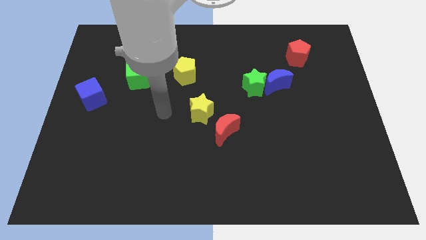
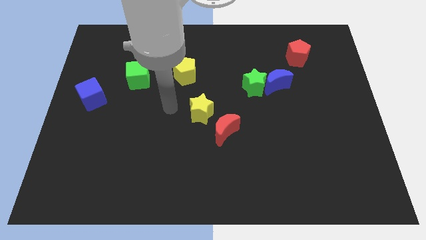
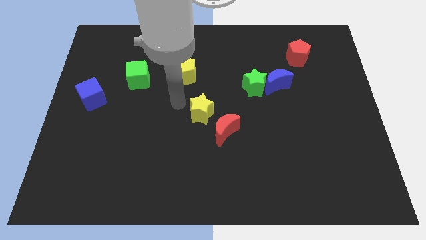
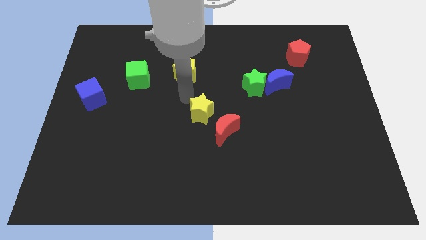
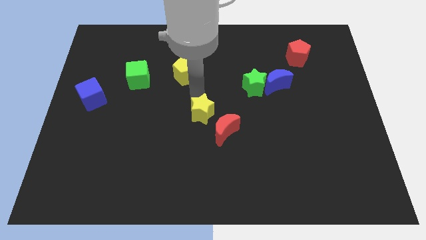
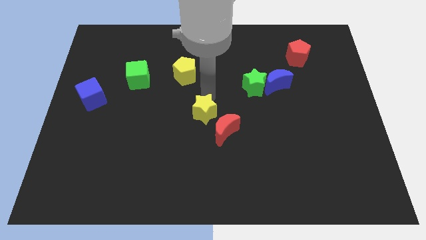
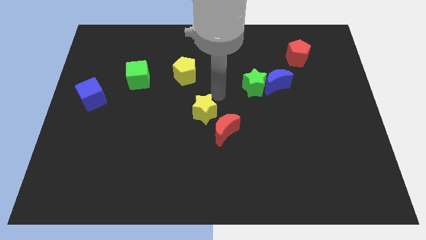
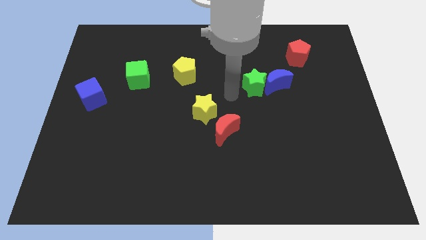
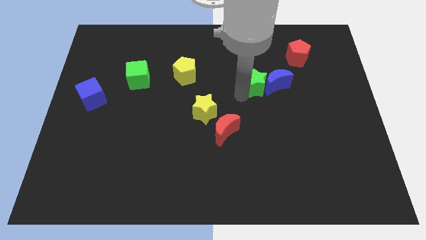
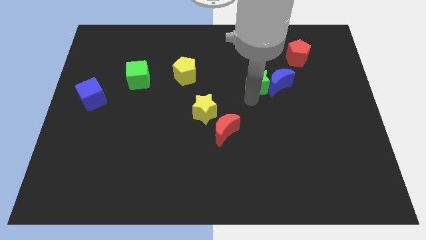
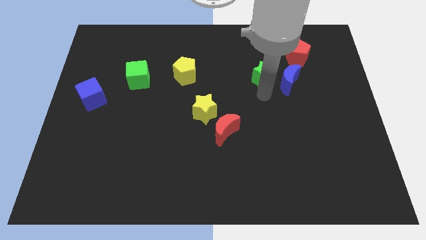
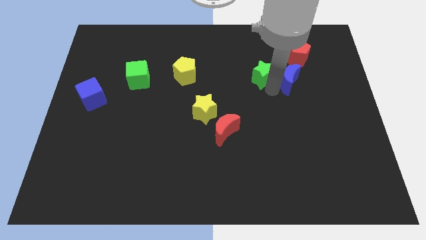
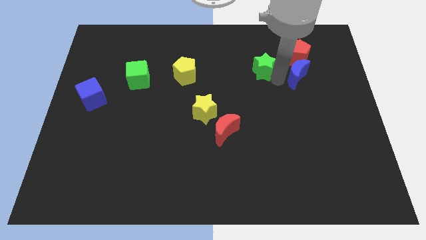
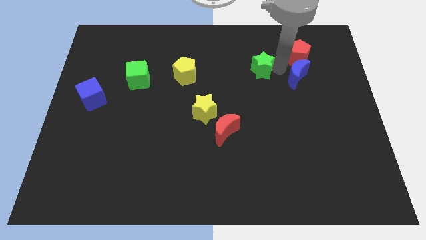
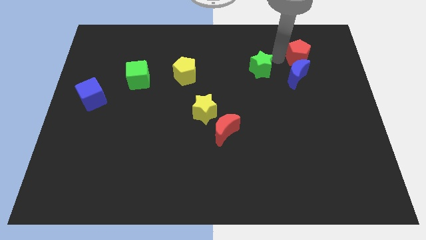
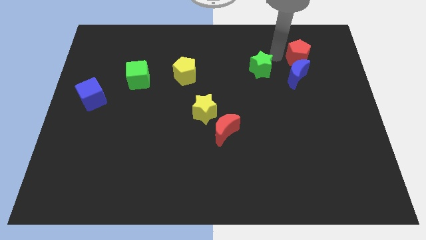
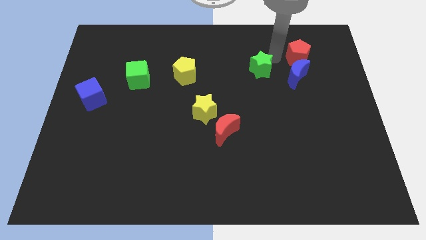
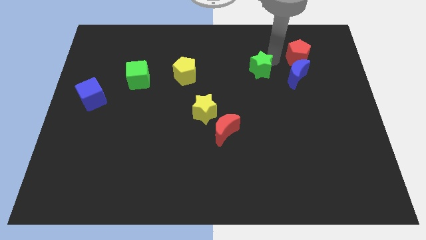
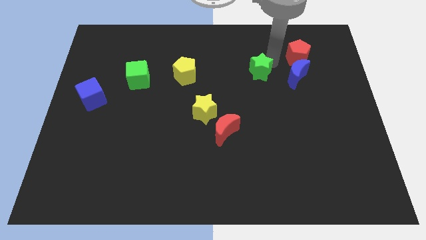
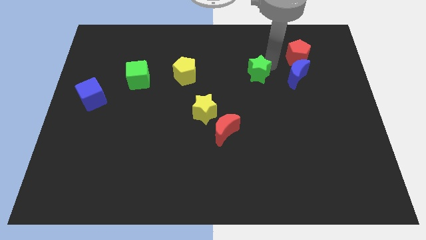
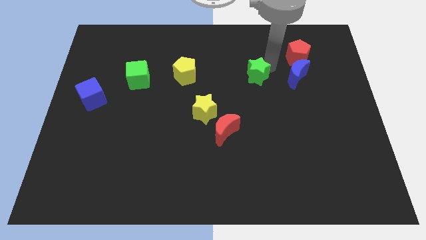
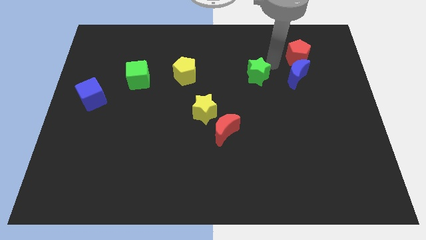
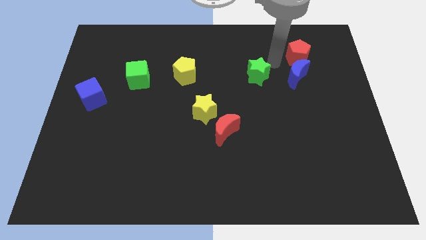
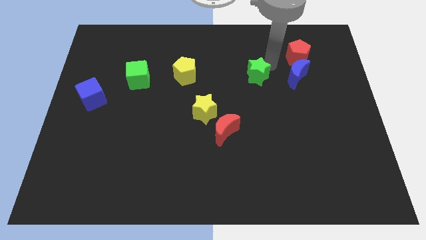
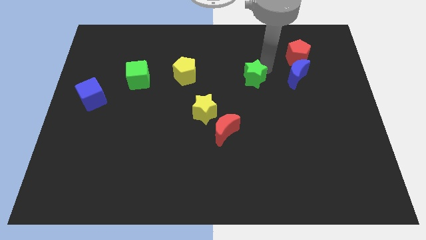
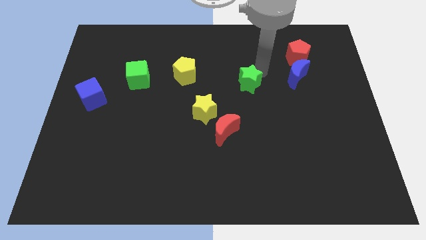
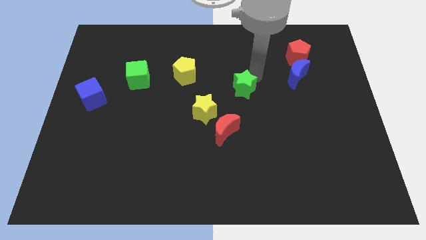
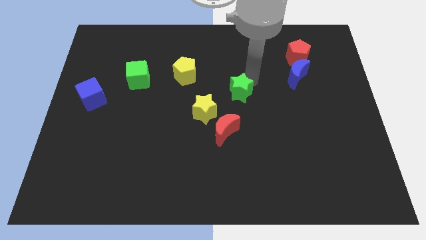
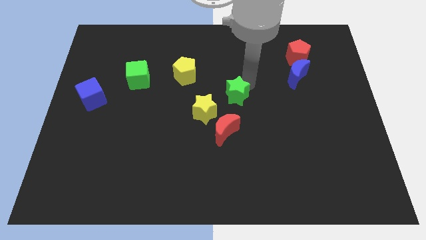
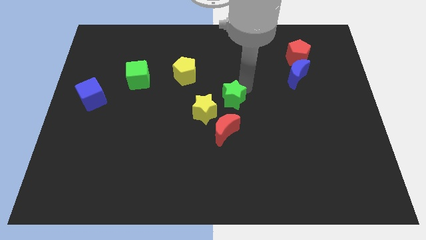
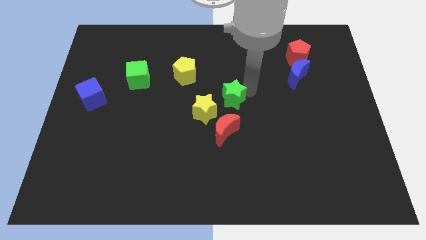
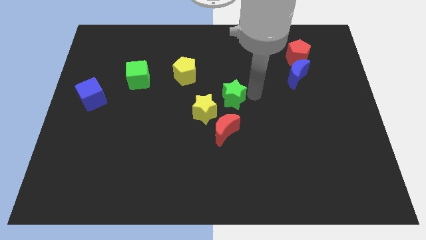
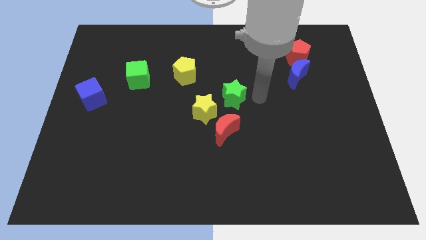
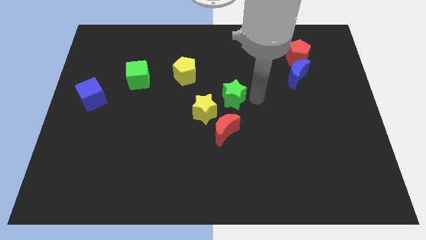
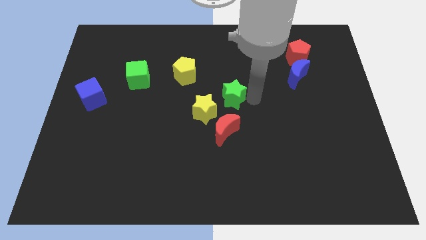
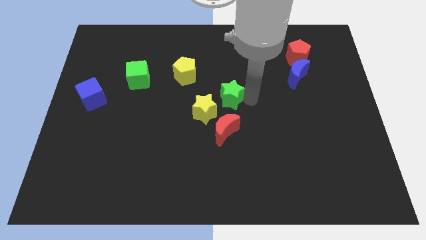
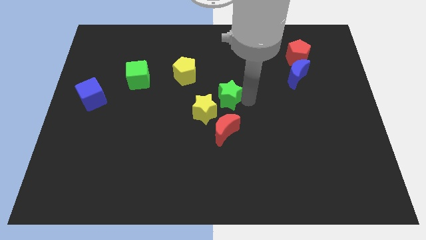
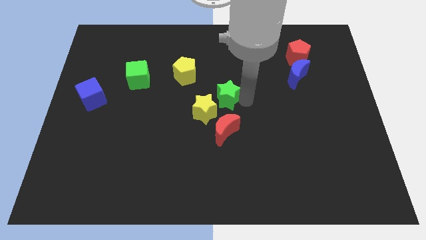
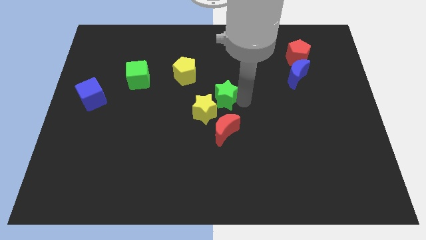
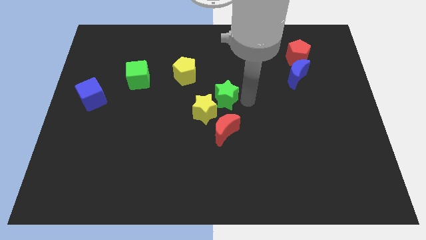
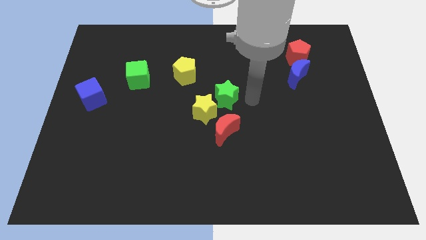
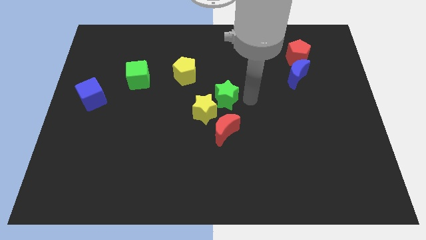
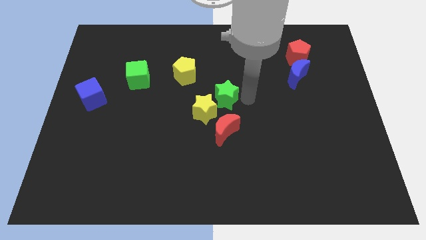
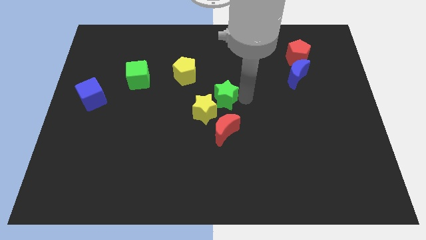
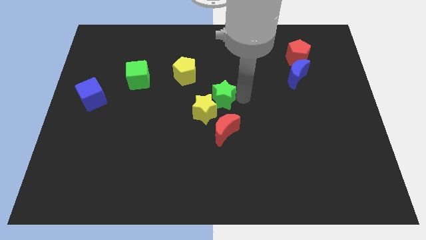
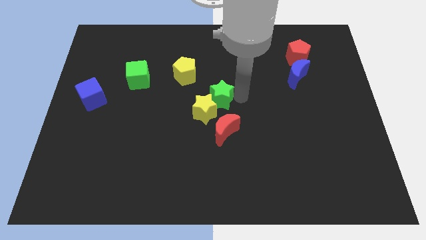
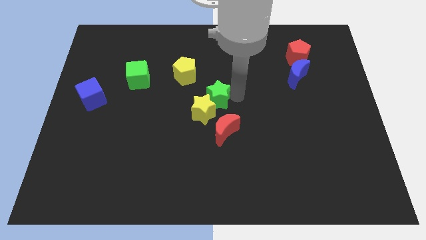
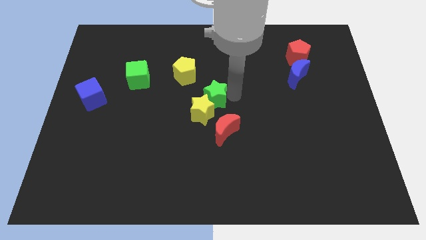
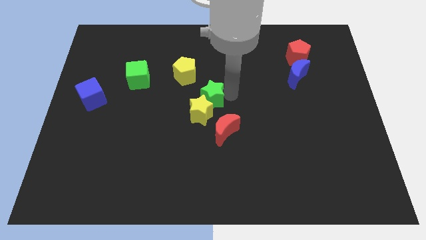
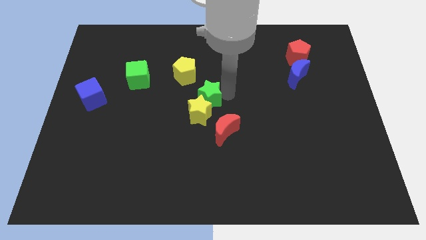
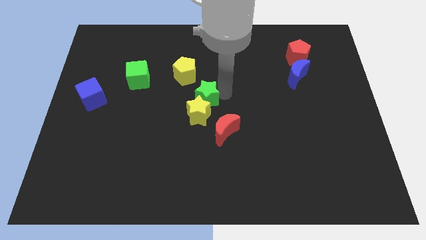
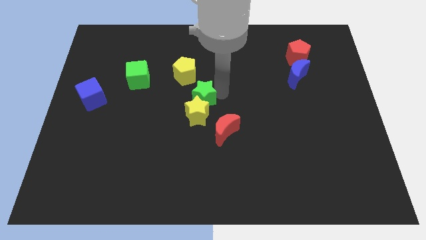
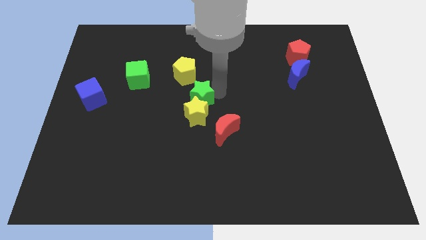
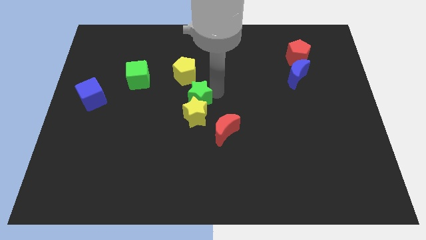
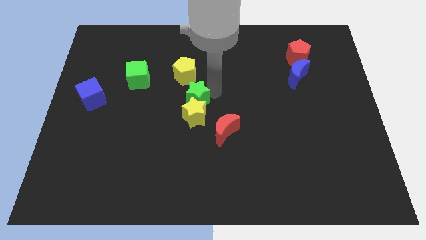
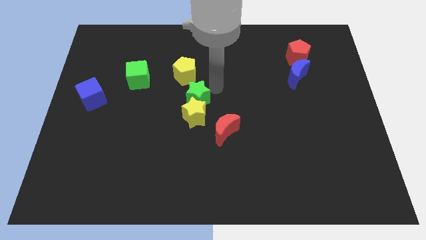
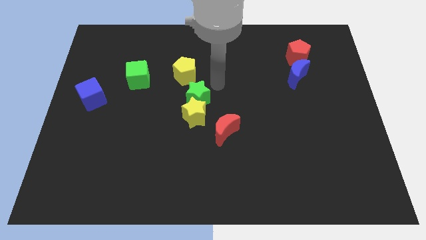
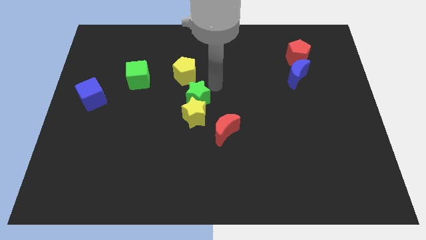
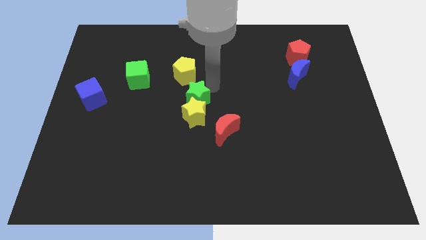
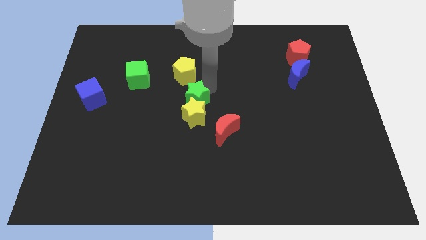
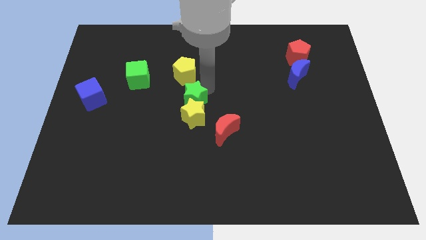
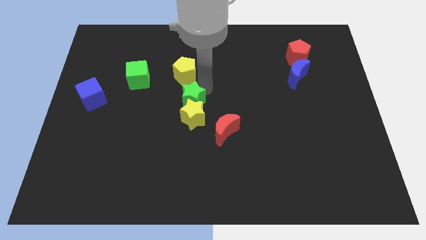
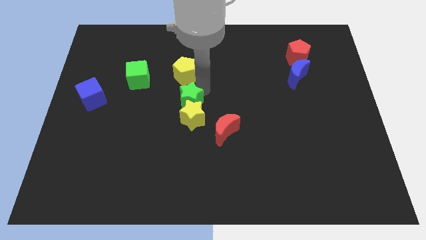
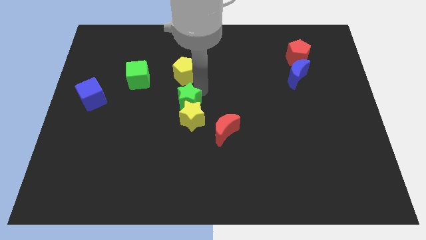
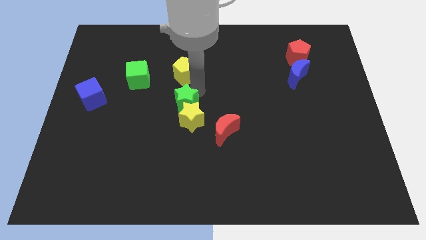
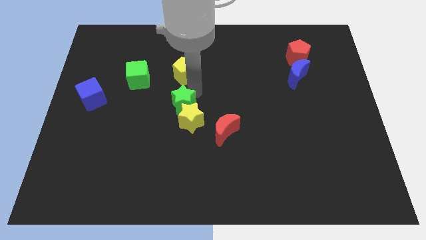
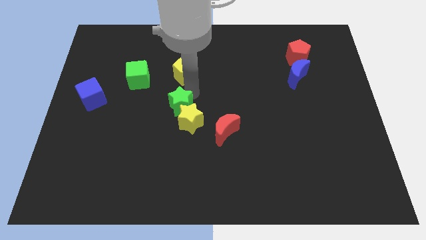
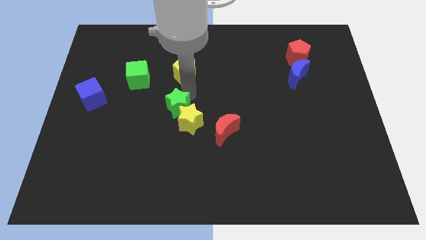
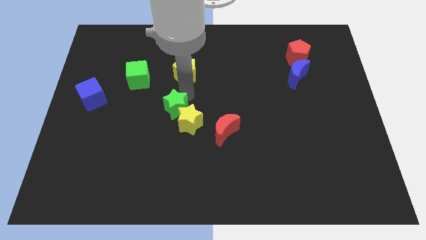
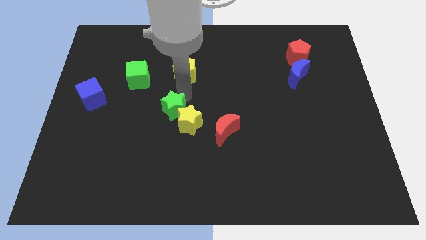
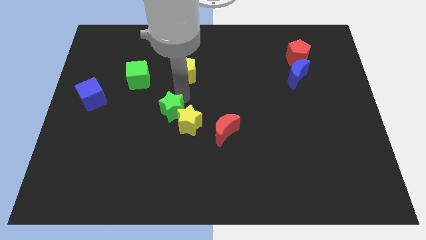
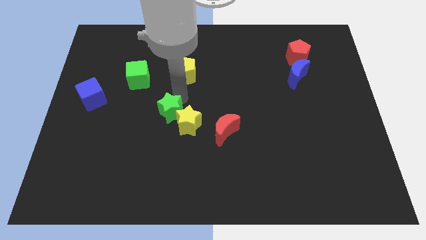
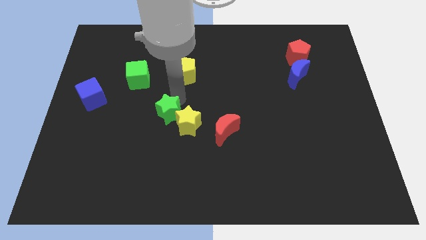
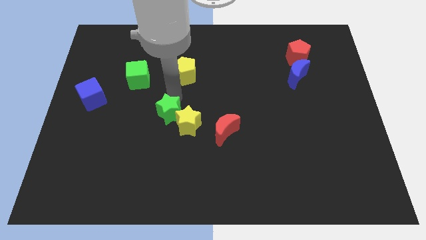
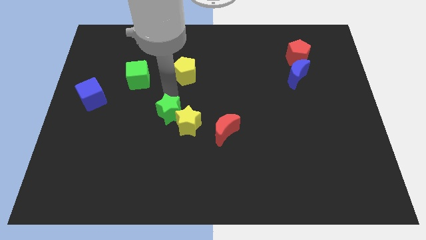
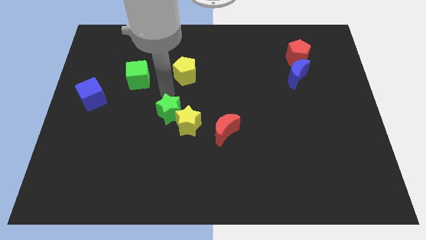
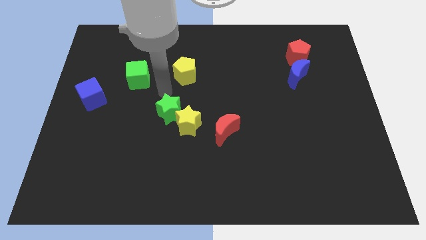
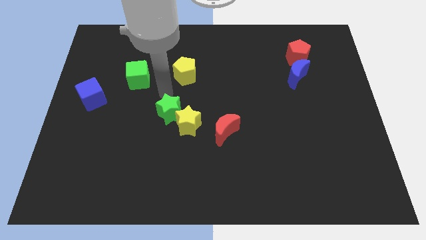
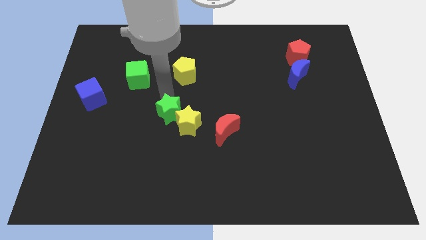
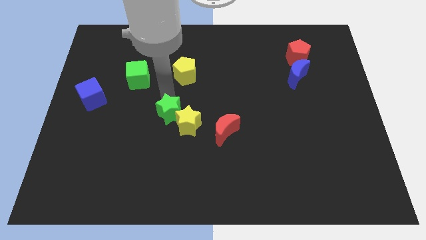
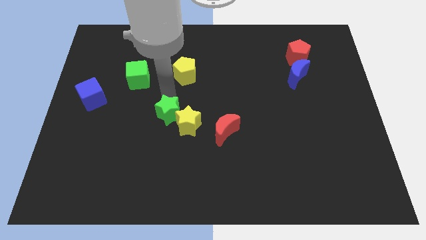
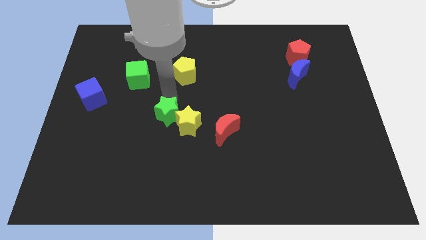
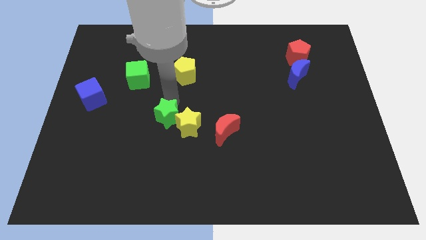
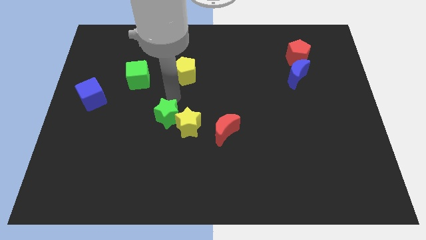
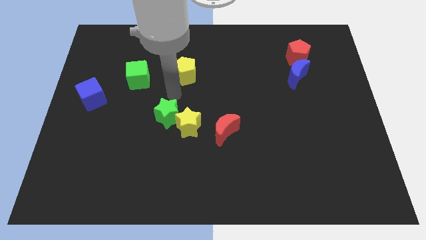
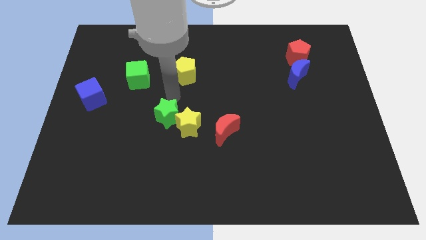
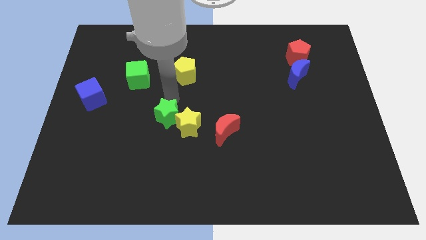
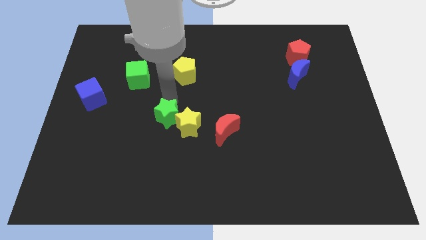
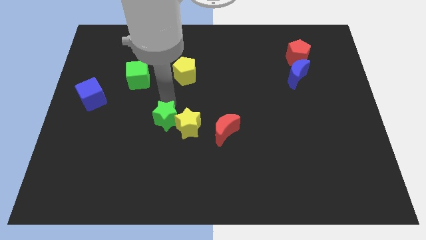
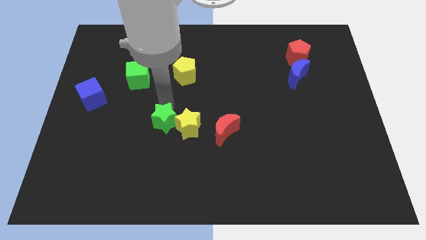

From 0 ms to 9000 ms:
push the green star diagonally downwards and left
